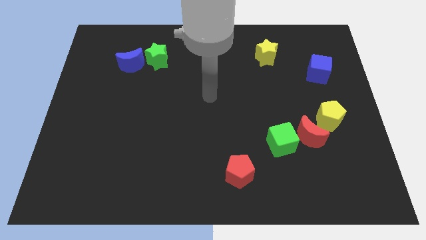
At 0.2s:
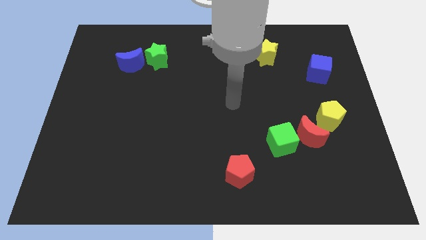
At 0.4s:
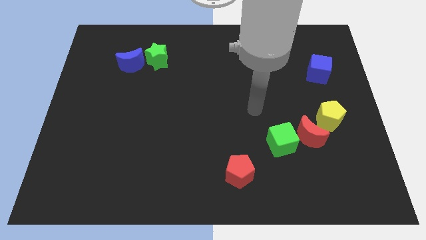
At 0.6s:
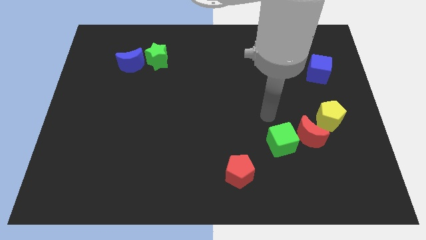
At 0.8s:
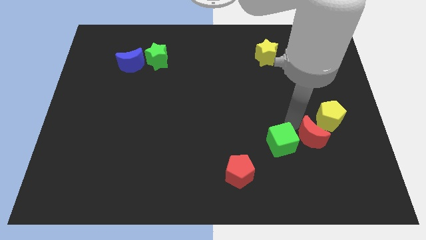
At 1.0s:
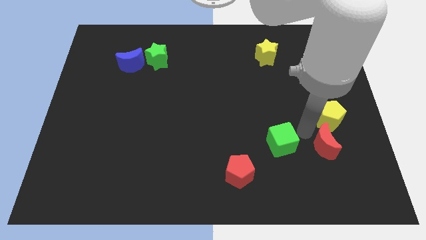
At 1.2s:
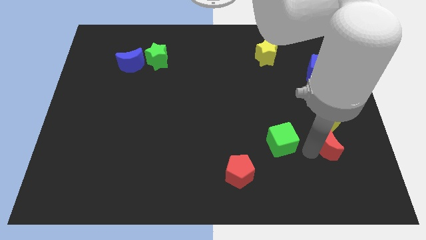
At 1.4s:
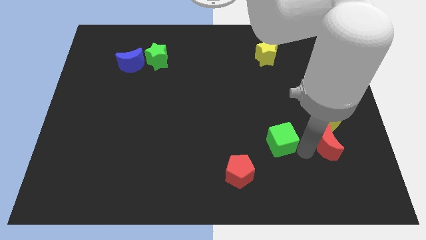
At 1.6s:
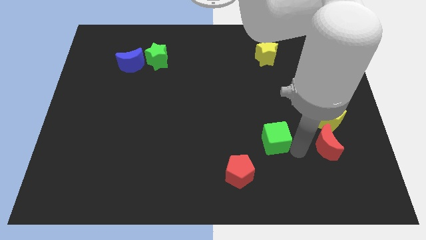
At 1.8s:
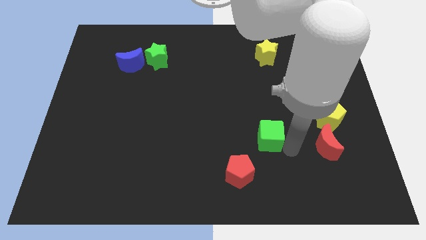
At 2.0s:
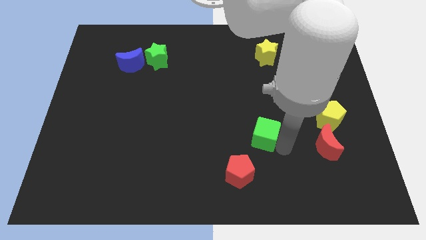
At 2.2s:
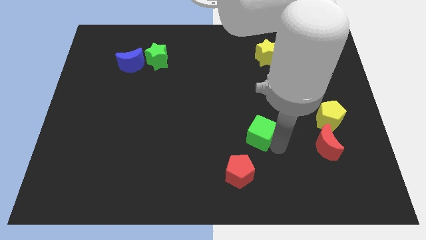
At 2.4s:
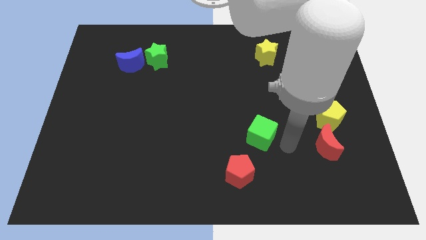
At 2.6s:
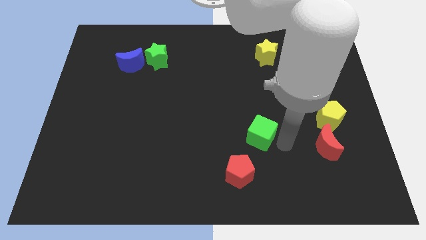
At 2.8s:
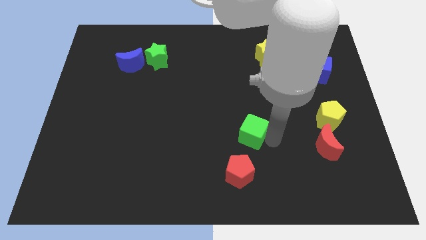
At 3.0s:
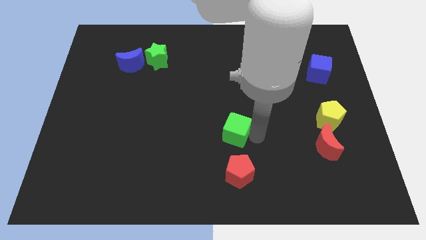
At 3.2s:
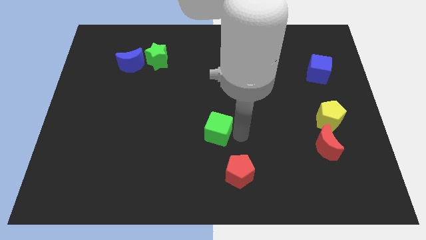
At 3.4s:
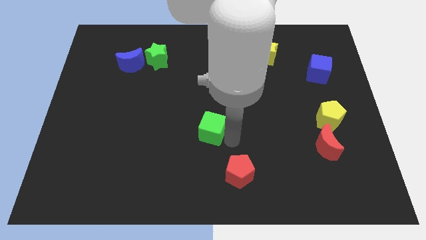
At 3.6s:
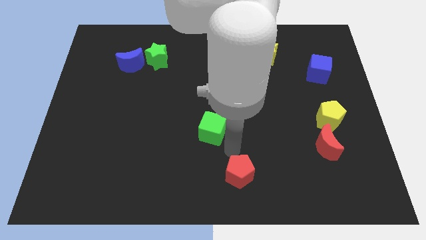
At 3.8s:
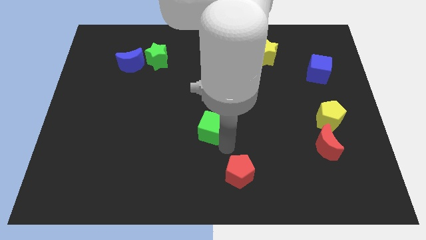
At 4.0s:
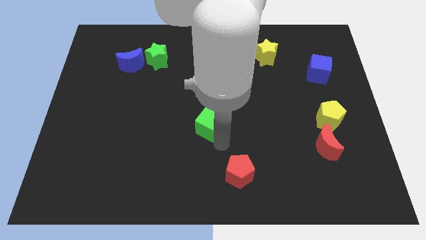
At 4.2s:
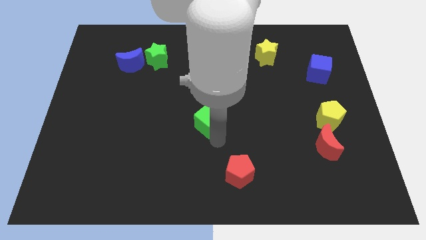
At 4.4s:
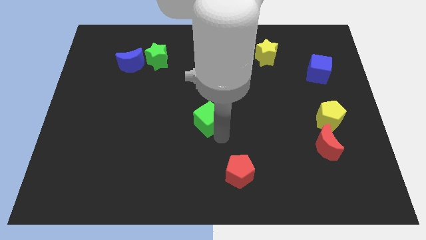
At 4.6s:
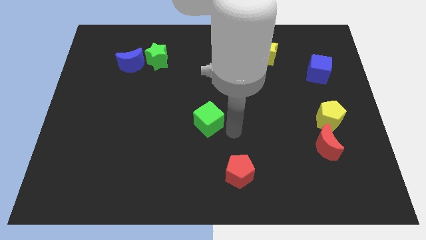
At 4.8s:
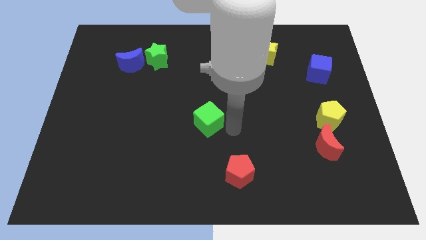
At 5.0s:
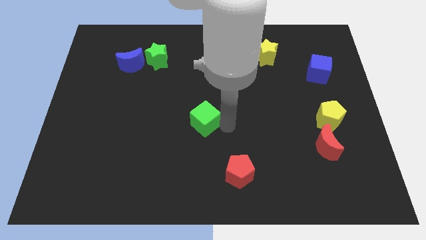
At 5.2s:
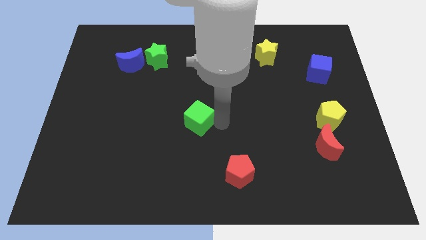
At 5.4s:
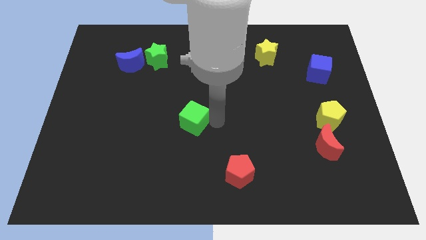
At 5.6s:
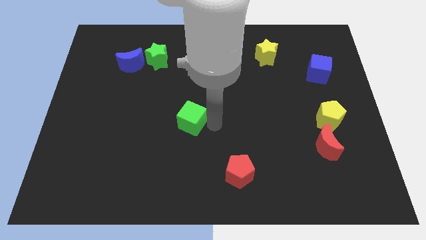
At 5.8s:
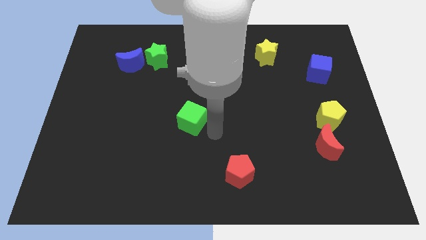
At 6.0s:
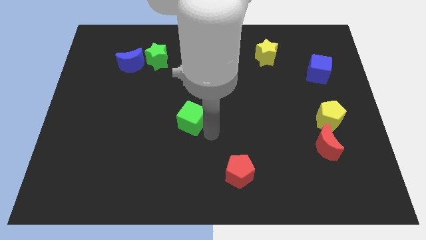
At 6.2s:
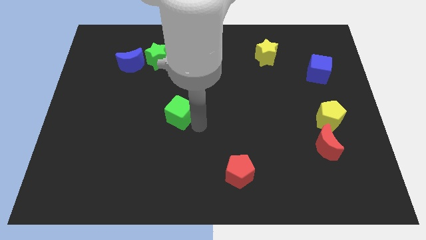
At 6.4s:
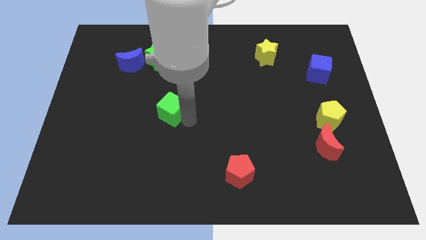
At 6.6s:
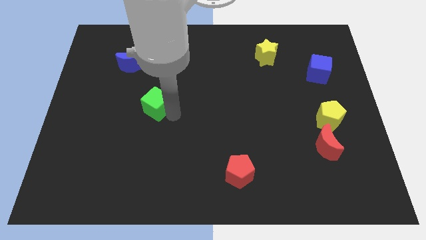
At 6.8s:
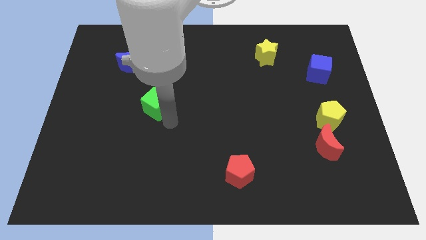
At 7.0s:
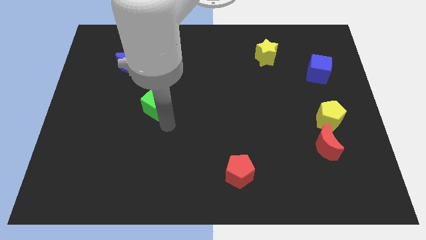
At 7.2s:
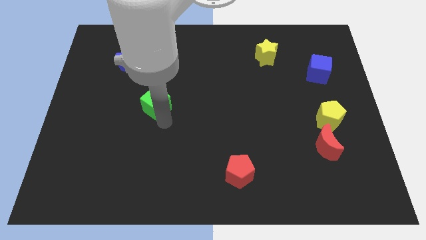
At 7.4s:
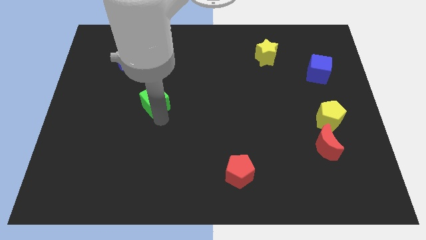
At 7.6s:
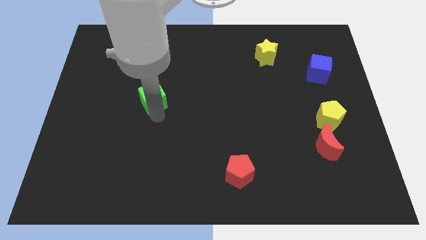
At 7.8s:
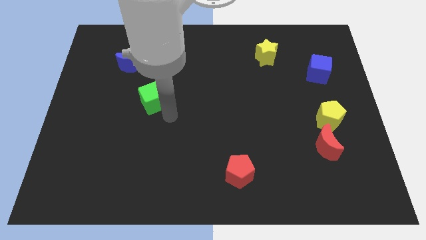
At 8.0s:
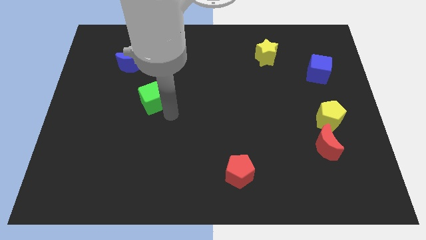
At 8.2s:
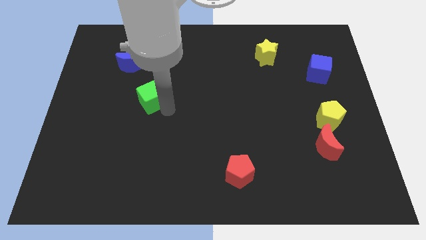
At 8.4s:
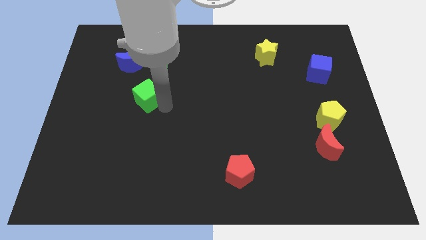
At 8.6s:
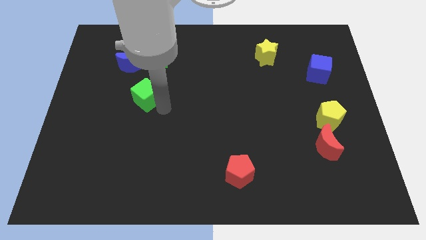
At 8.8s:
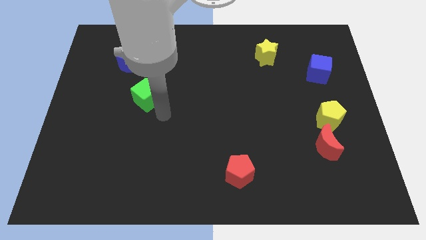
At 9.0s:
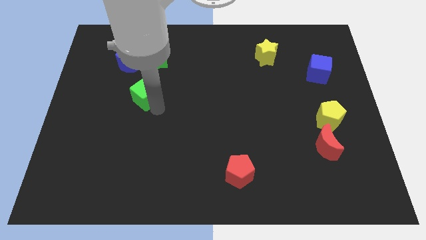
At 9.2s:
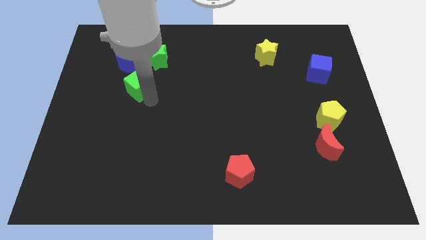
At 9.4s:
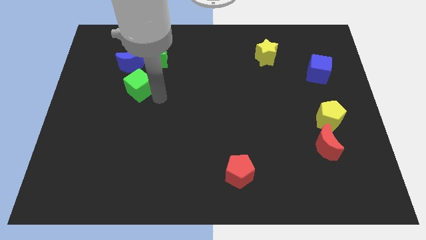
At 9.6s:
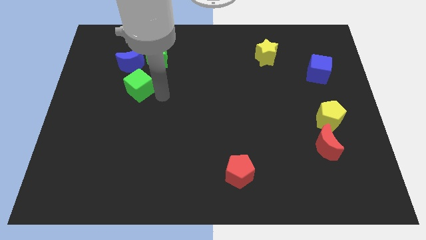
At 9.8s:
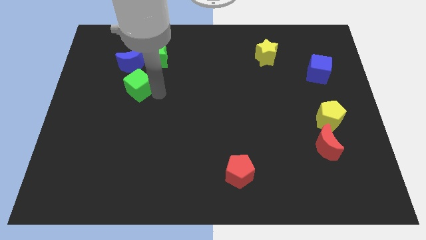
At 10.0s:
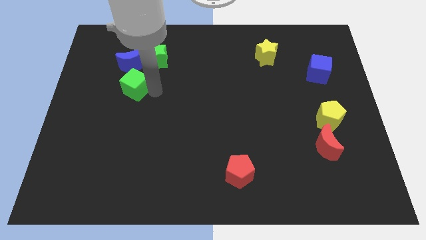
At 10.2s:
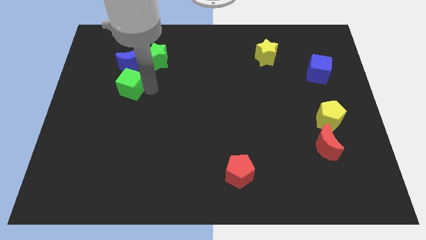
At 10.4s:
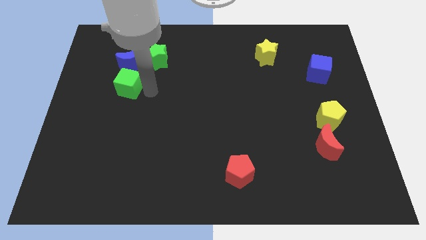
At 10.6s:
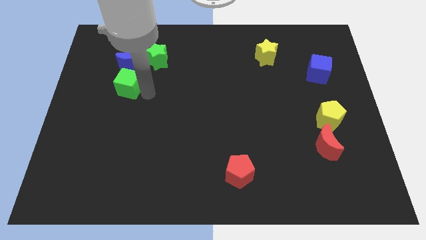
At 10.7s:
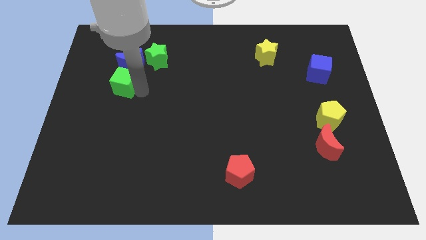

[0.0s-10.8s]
move the green cube to the bottom left of the blue moon

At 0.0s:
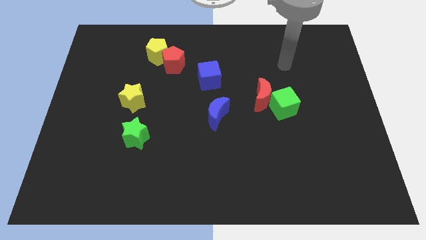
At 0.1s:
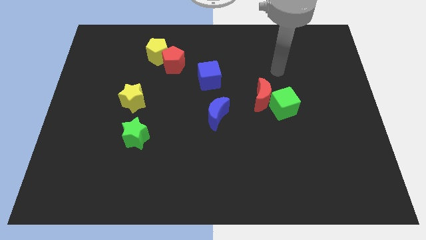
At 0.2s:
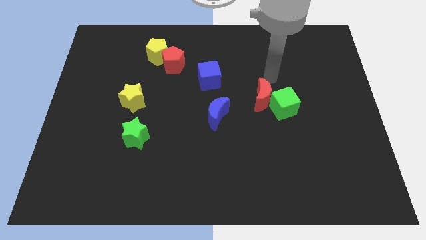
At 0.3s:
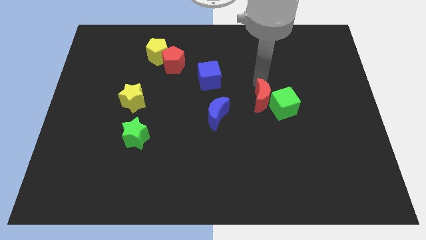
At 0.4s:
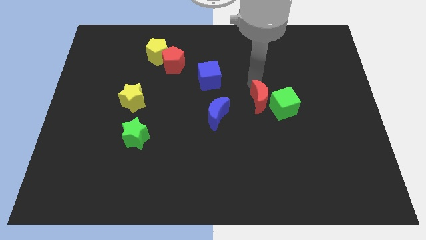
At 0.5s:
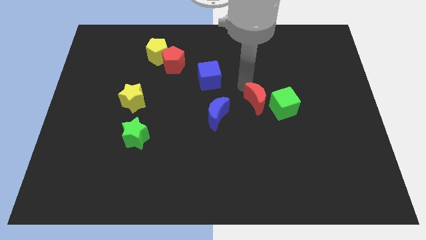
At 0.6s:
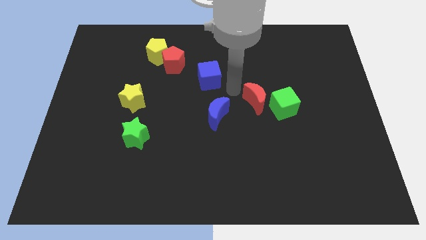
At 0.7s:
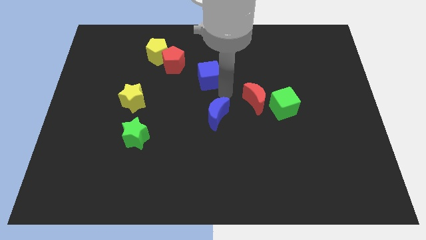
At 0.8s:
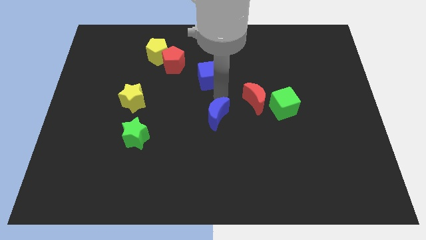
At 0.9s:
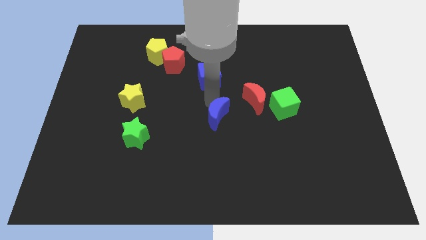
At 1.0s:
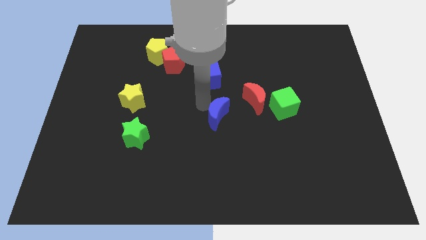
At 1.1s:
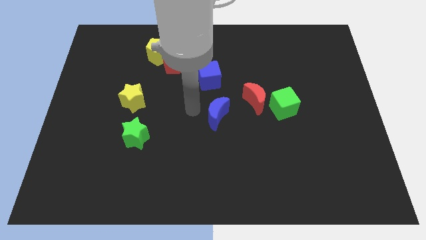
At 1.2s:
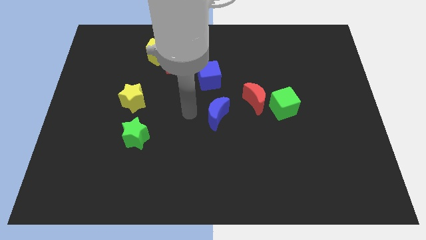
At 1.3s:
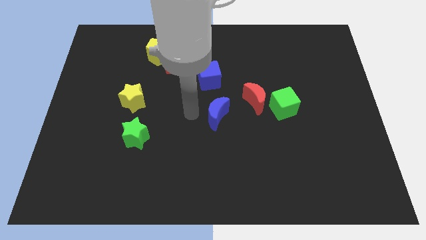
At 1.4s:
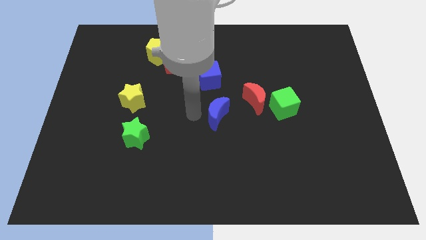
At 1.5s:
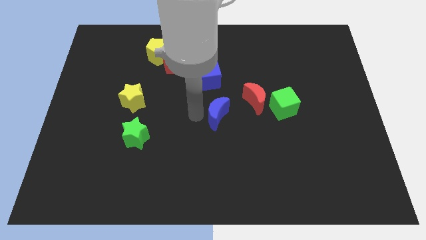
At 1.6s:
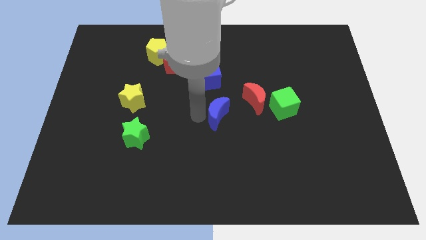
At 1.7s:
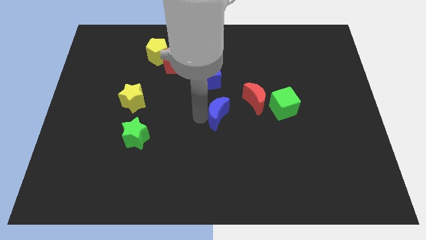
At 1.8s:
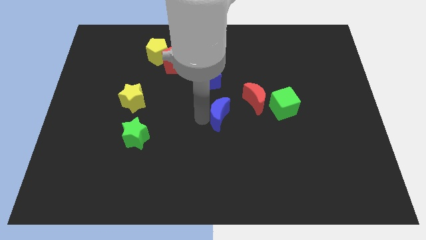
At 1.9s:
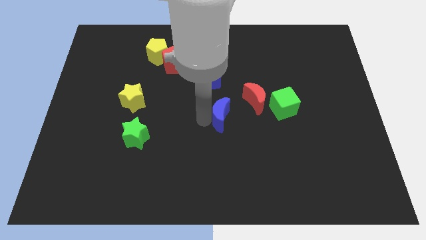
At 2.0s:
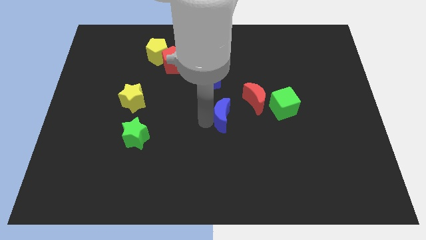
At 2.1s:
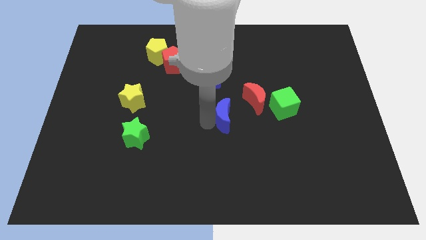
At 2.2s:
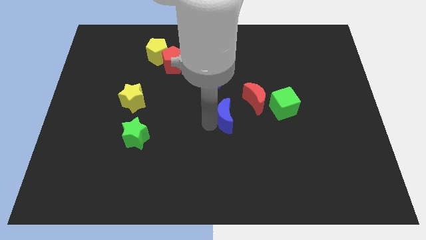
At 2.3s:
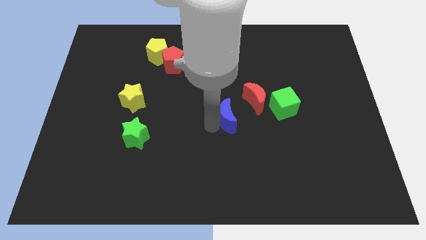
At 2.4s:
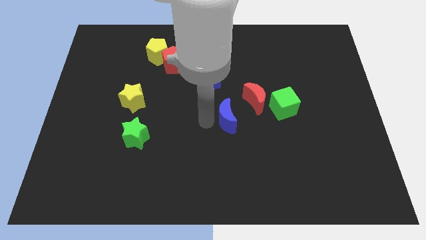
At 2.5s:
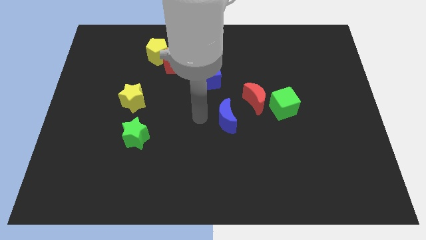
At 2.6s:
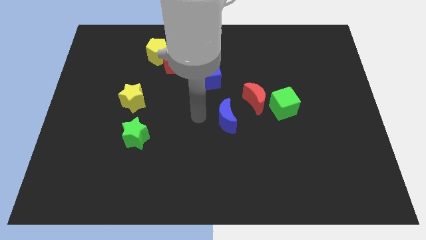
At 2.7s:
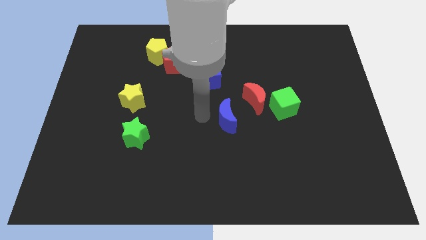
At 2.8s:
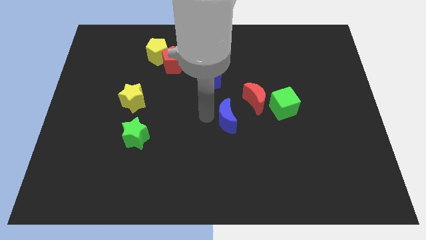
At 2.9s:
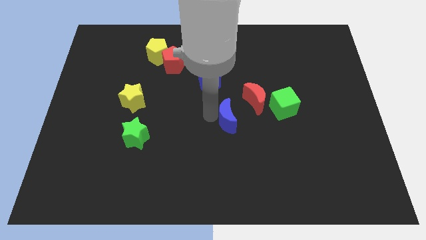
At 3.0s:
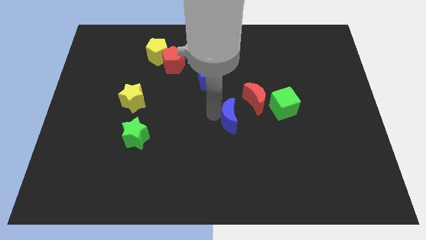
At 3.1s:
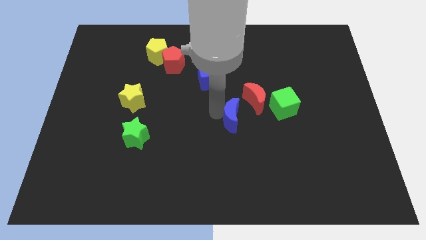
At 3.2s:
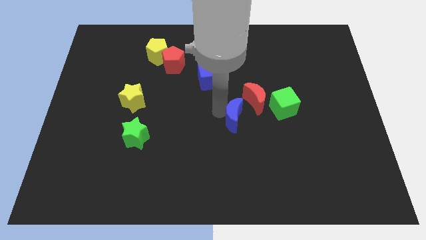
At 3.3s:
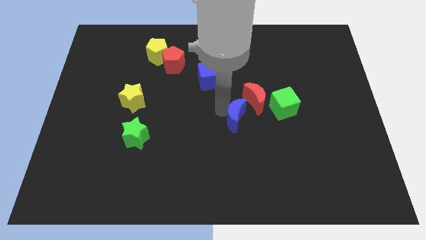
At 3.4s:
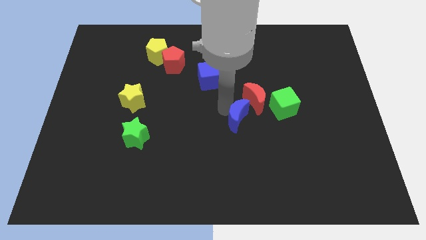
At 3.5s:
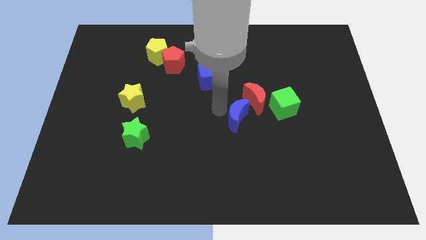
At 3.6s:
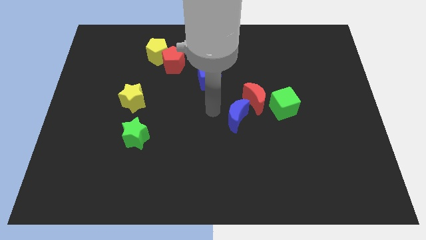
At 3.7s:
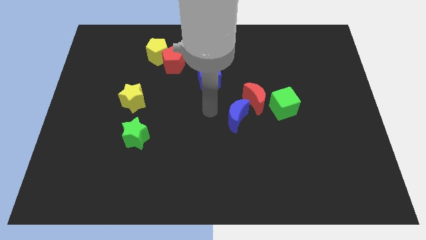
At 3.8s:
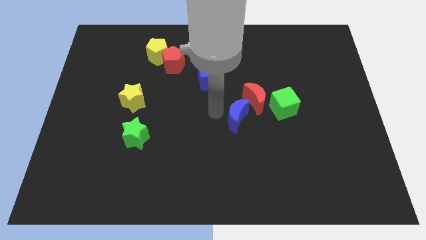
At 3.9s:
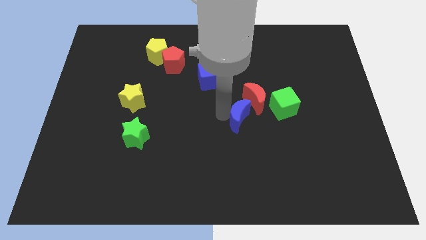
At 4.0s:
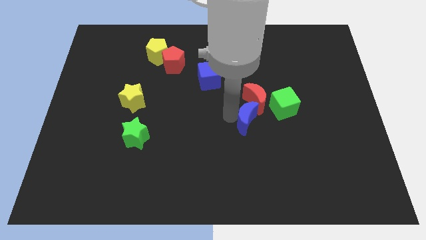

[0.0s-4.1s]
push the blue moon to the bottom left side of the green cube
